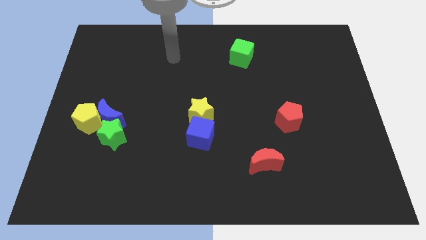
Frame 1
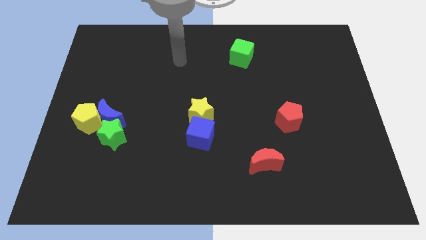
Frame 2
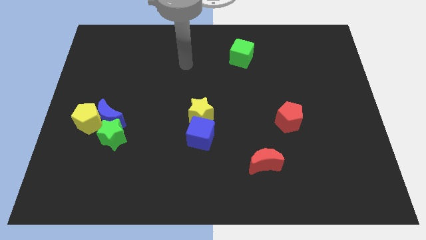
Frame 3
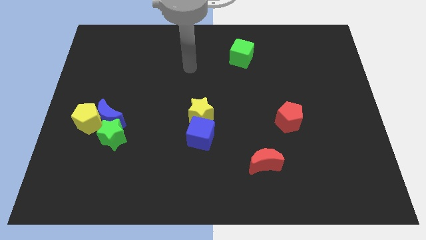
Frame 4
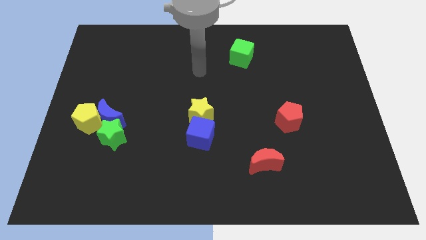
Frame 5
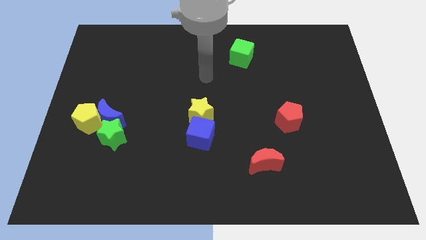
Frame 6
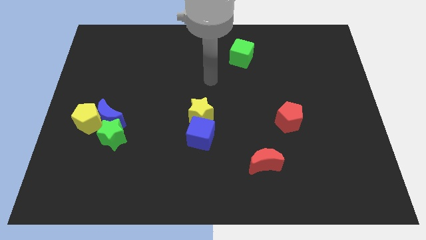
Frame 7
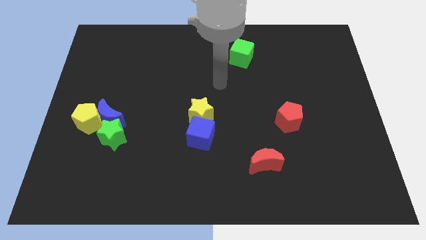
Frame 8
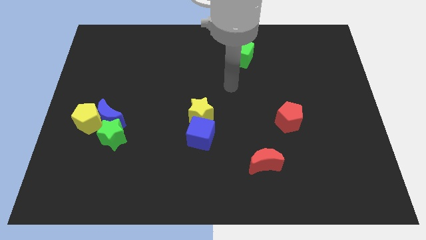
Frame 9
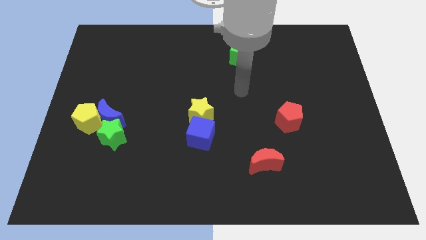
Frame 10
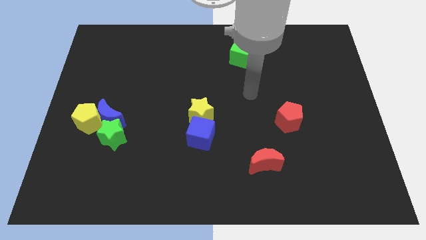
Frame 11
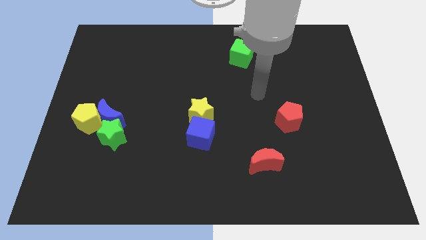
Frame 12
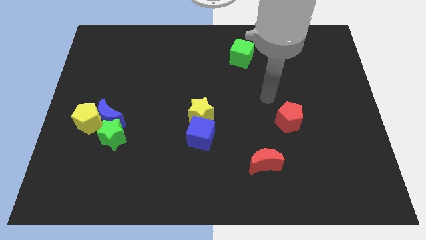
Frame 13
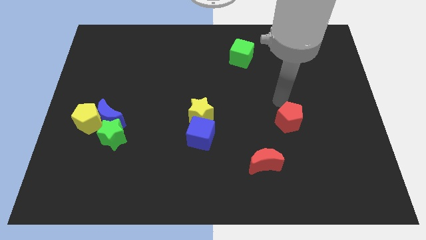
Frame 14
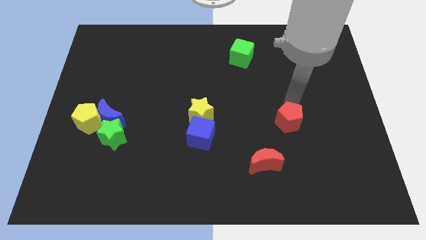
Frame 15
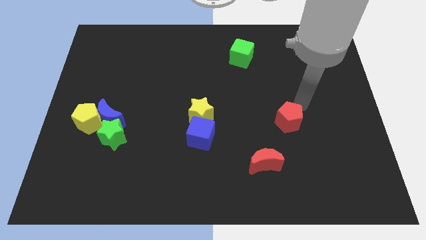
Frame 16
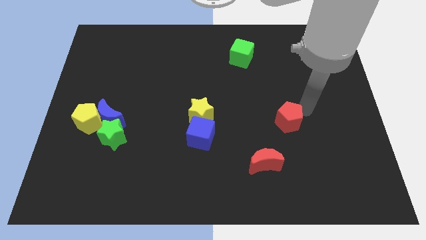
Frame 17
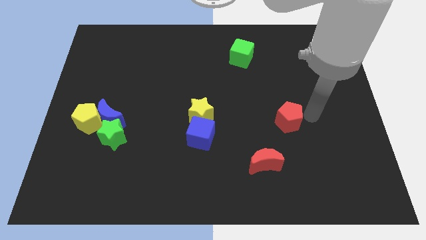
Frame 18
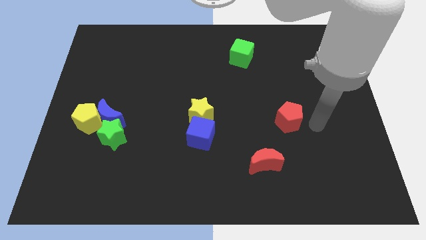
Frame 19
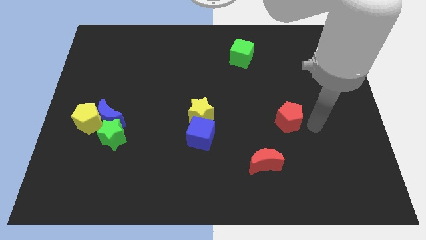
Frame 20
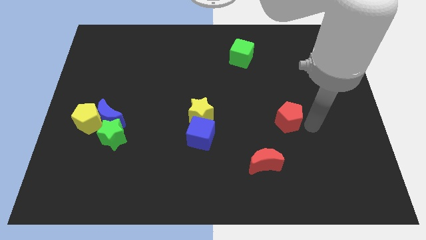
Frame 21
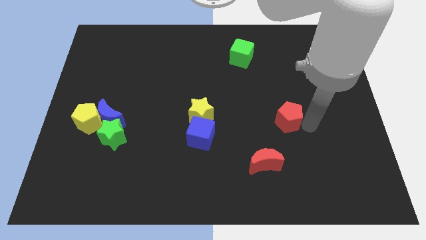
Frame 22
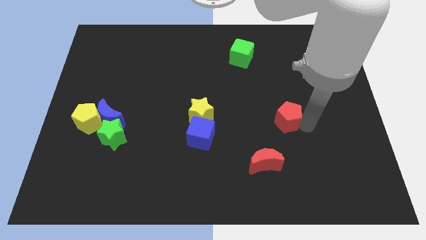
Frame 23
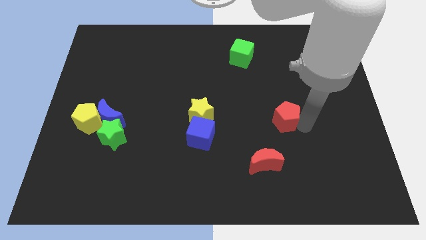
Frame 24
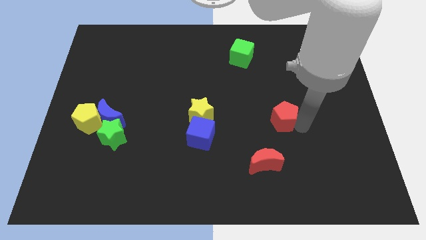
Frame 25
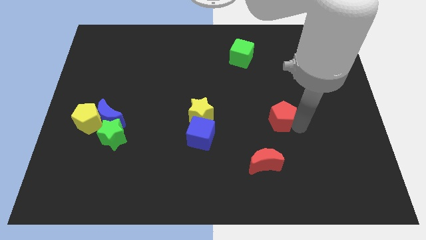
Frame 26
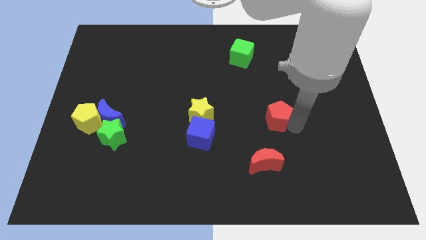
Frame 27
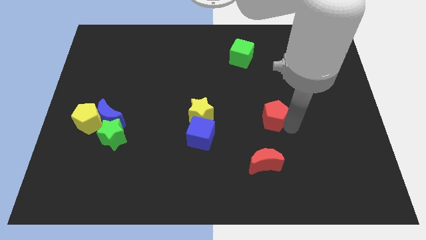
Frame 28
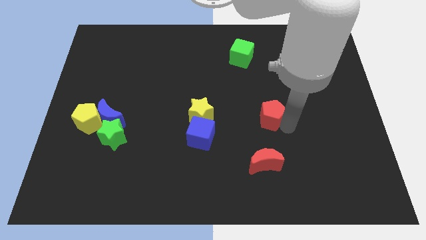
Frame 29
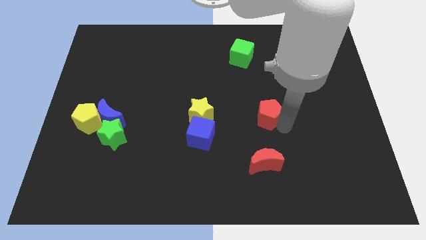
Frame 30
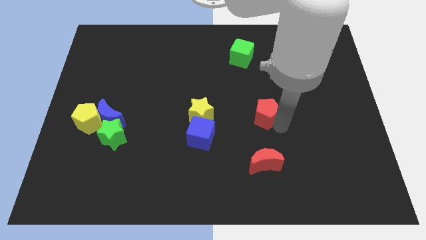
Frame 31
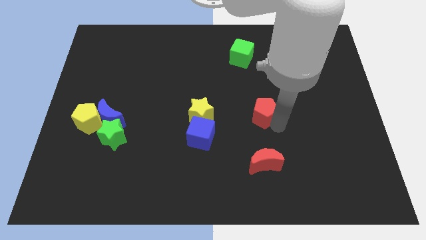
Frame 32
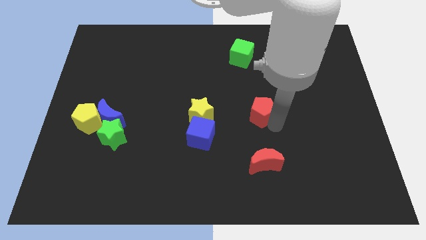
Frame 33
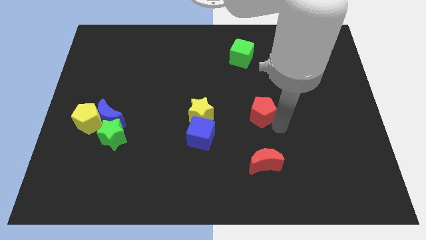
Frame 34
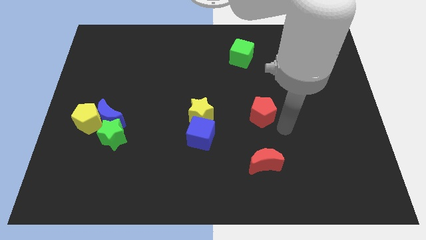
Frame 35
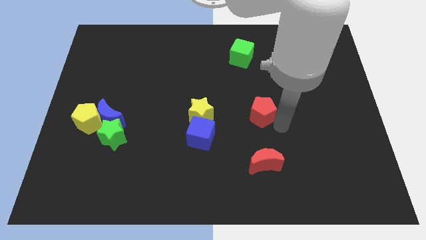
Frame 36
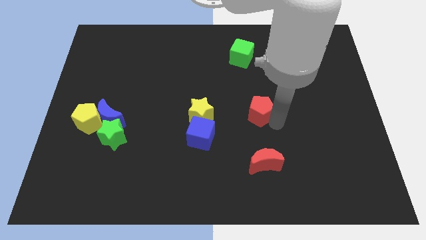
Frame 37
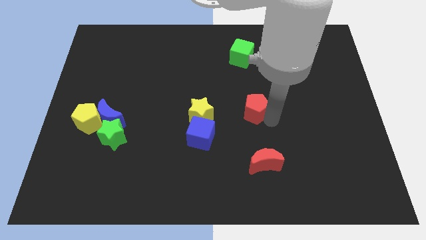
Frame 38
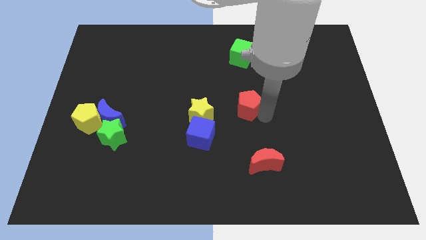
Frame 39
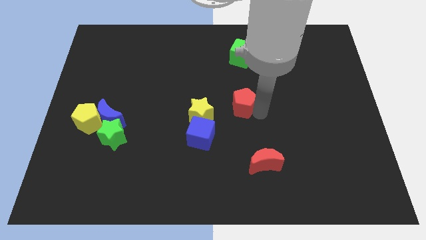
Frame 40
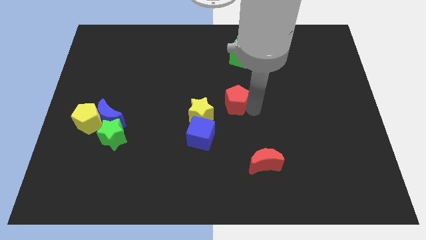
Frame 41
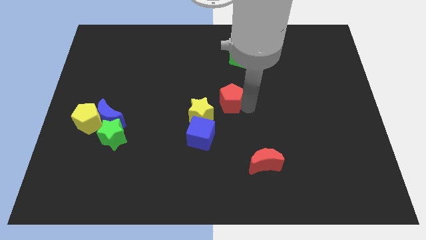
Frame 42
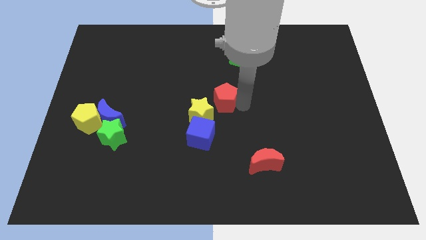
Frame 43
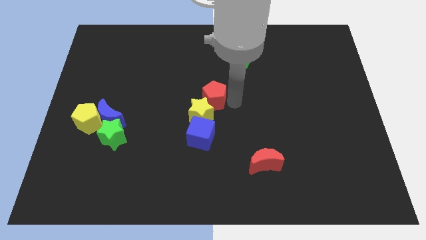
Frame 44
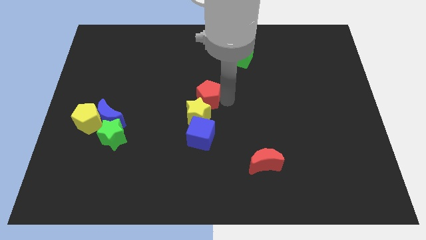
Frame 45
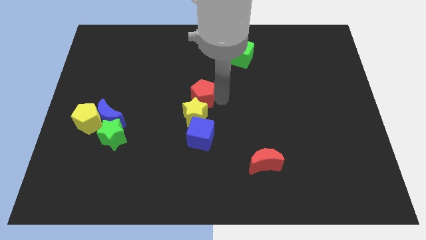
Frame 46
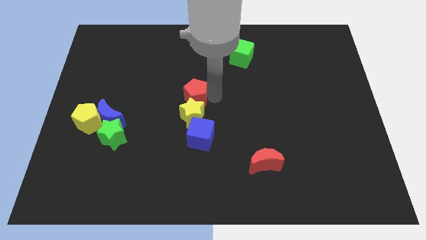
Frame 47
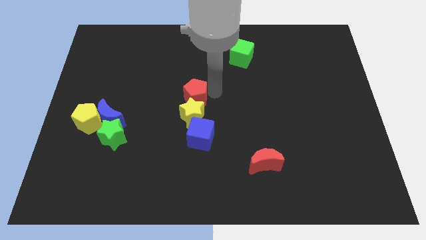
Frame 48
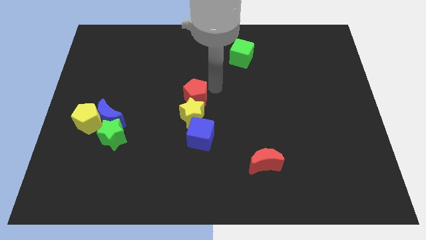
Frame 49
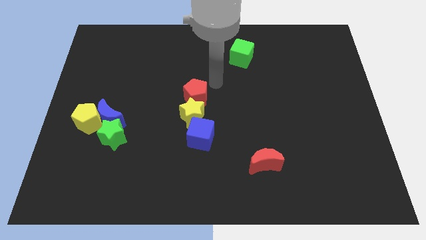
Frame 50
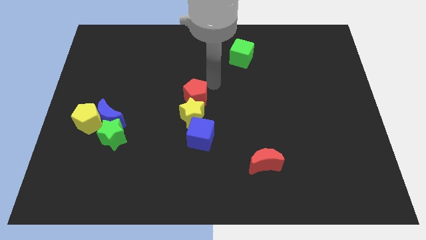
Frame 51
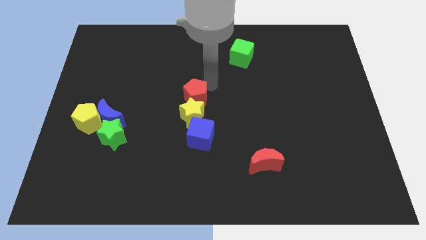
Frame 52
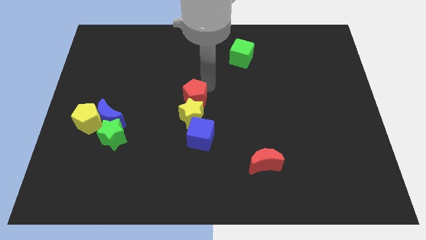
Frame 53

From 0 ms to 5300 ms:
move the red pentagon to the left

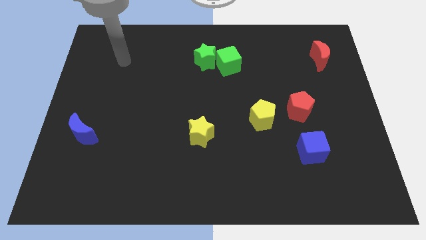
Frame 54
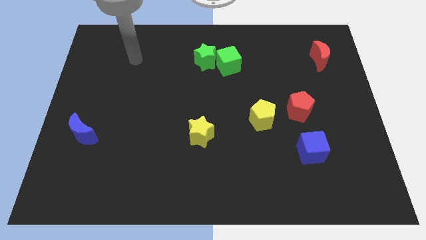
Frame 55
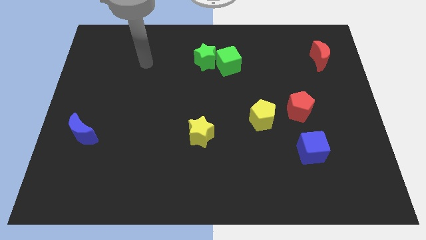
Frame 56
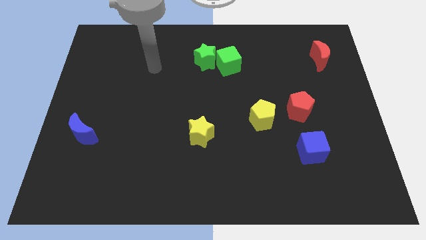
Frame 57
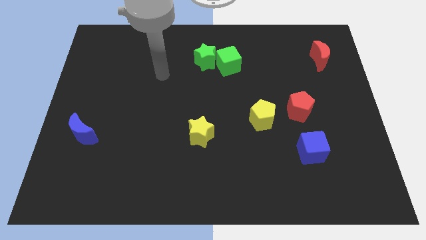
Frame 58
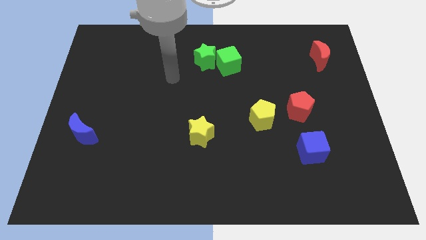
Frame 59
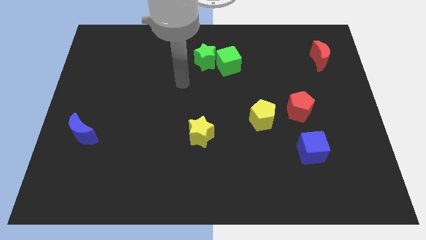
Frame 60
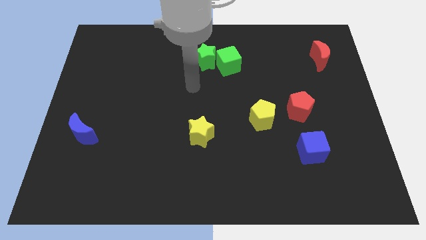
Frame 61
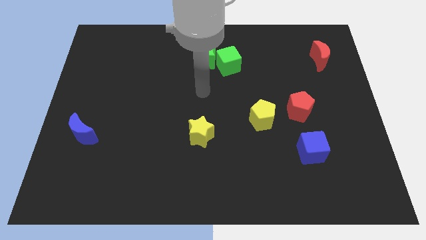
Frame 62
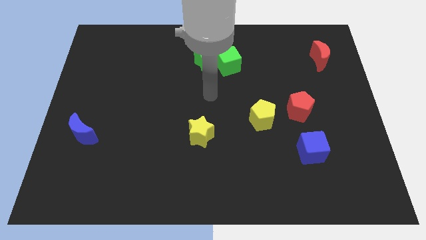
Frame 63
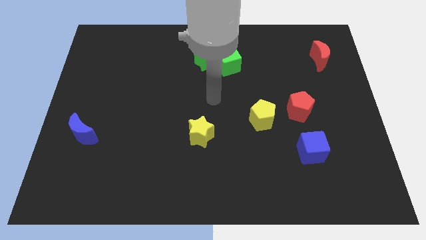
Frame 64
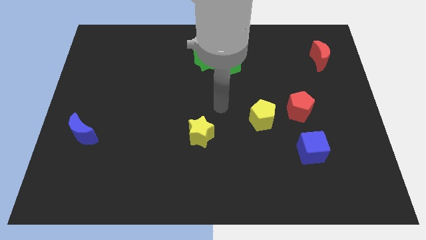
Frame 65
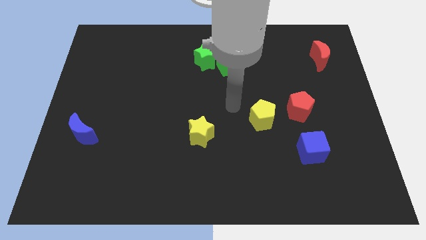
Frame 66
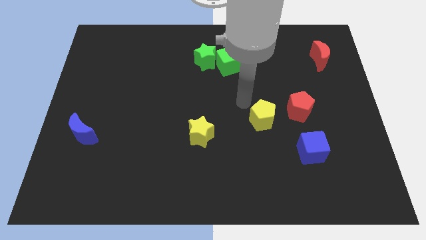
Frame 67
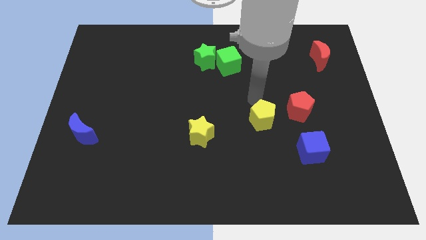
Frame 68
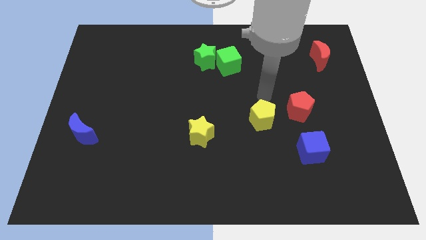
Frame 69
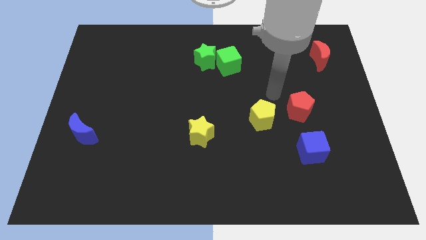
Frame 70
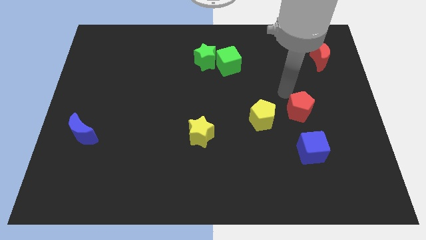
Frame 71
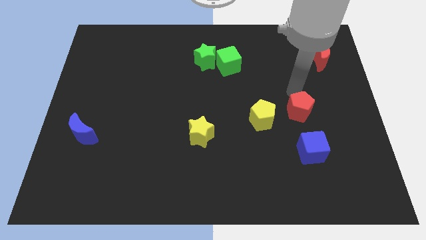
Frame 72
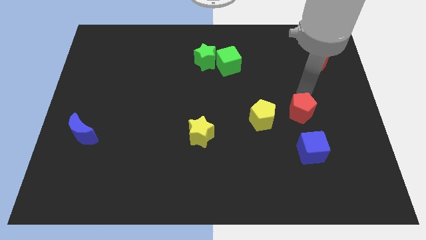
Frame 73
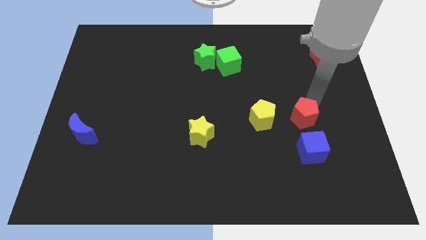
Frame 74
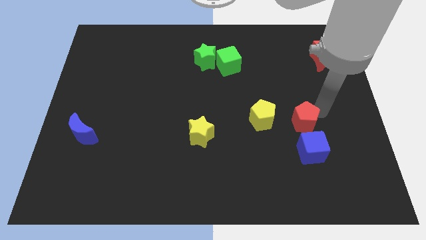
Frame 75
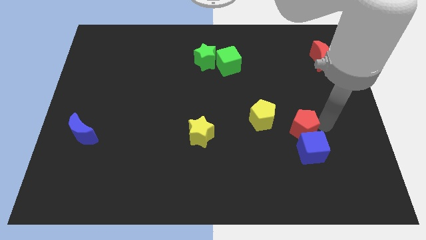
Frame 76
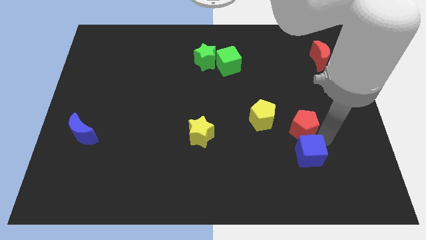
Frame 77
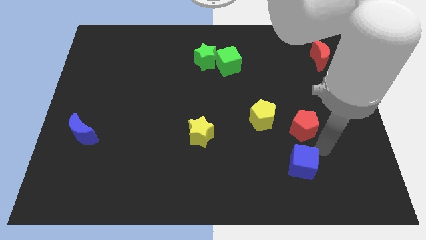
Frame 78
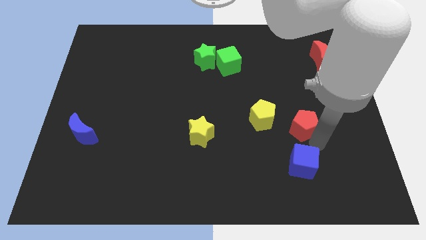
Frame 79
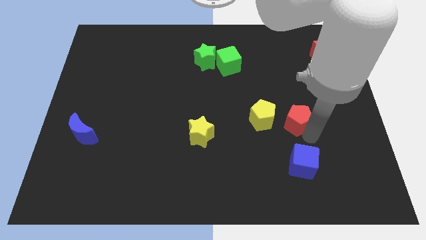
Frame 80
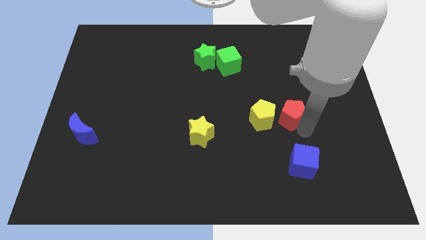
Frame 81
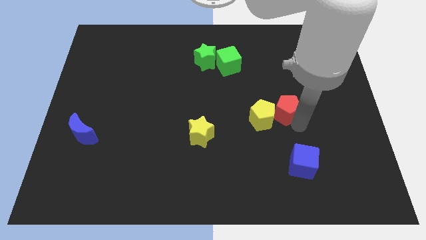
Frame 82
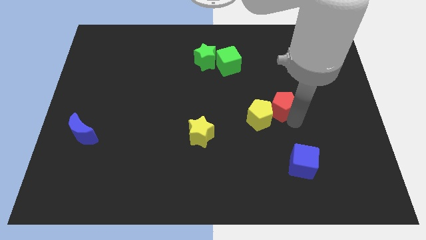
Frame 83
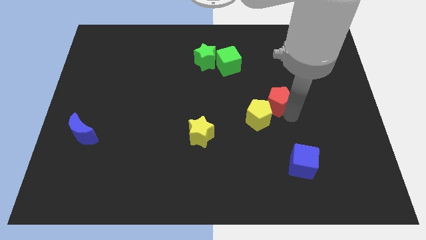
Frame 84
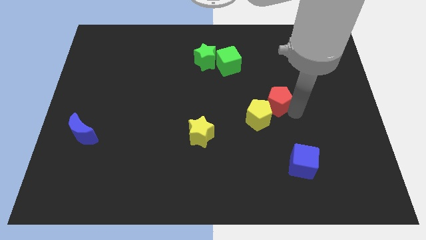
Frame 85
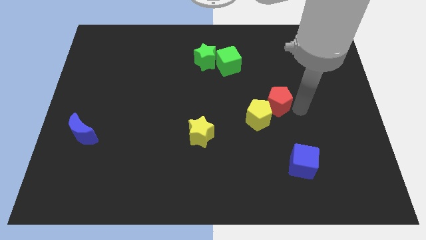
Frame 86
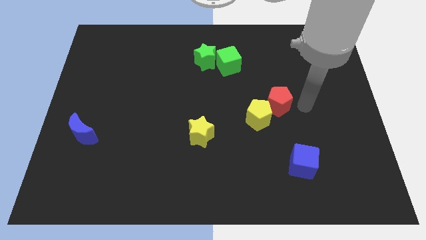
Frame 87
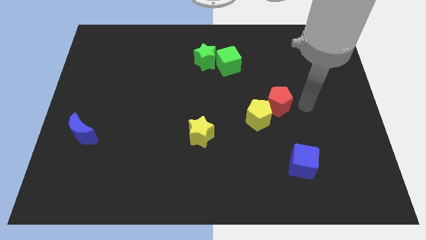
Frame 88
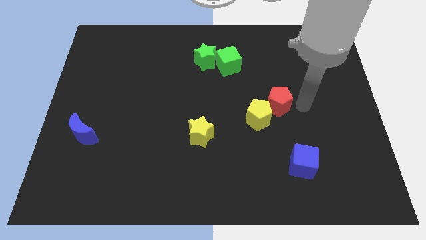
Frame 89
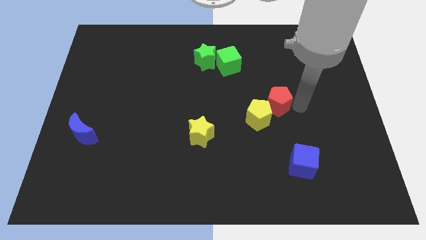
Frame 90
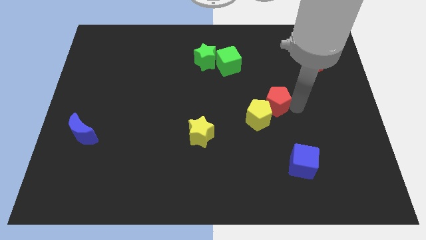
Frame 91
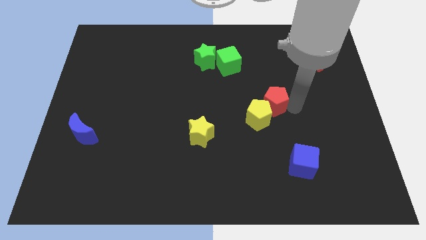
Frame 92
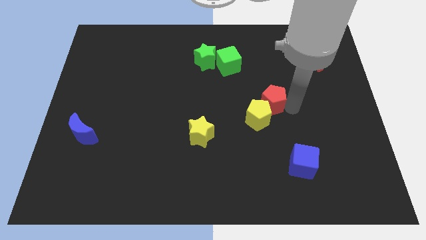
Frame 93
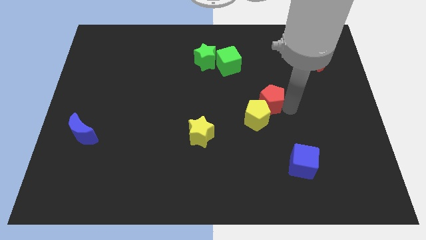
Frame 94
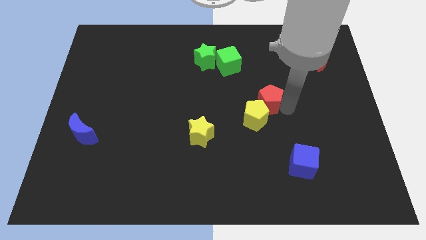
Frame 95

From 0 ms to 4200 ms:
slightly push the red pentagon to the left
